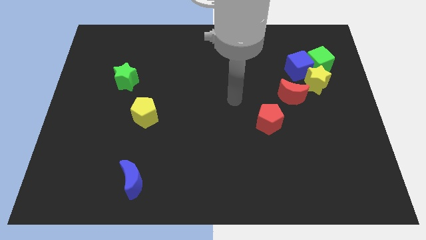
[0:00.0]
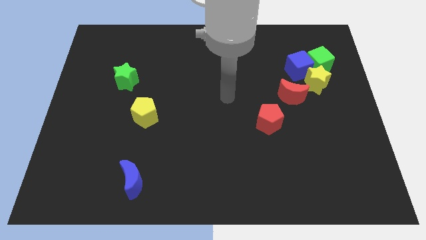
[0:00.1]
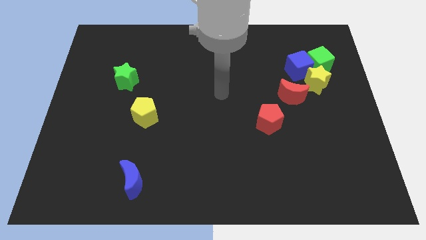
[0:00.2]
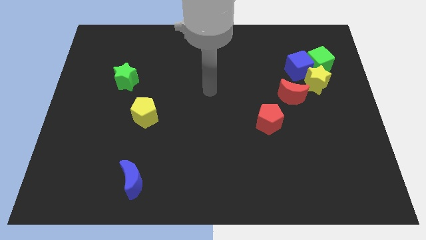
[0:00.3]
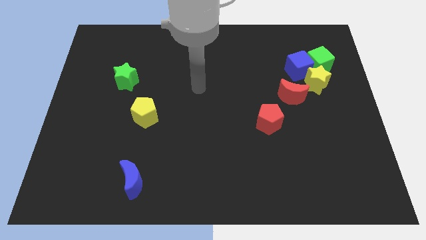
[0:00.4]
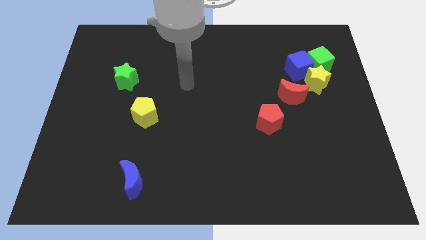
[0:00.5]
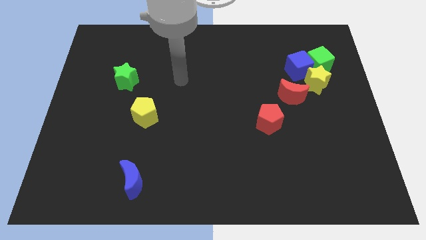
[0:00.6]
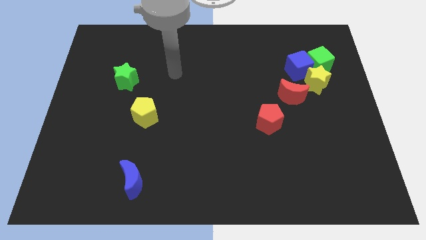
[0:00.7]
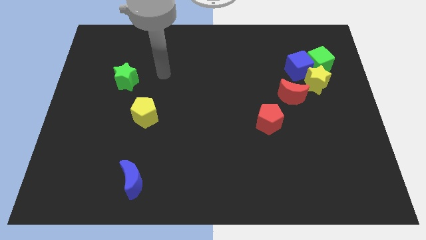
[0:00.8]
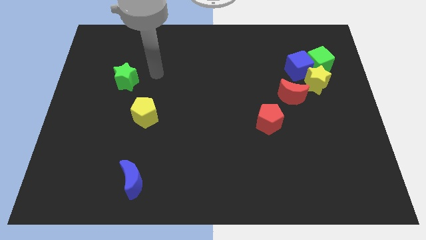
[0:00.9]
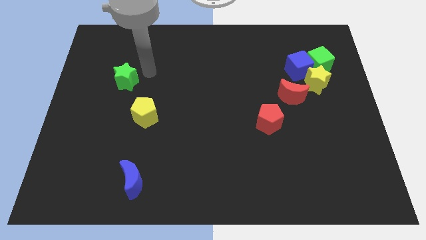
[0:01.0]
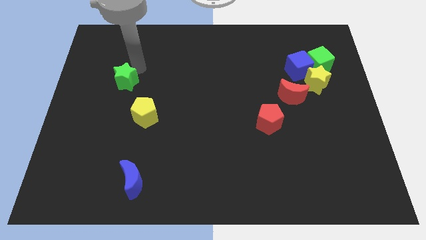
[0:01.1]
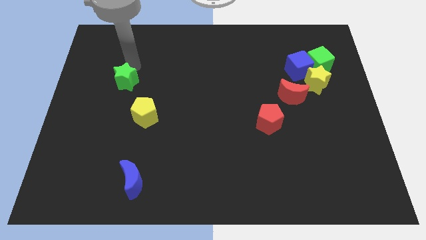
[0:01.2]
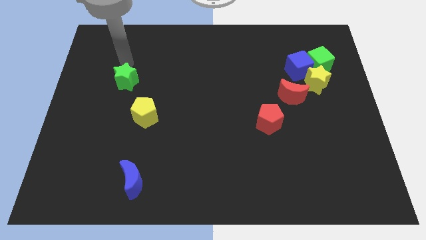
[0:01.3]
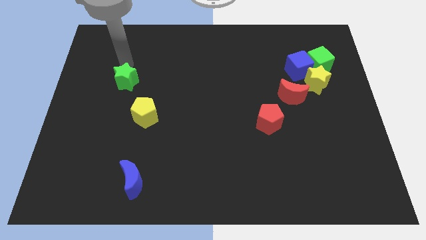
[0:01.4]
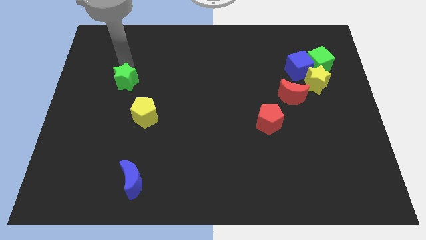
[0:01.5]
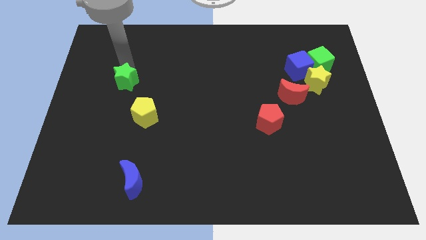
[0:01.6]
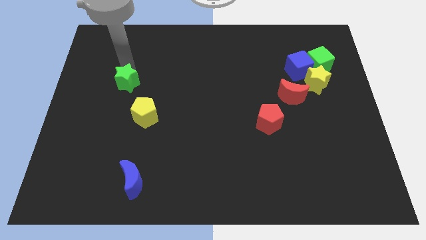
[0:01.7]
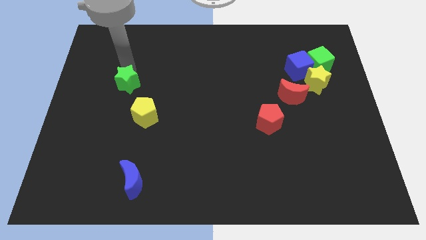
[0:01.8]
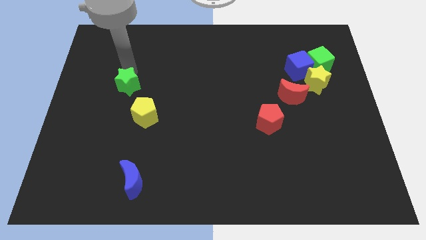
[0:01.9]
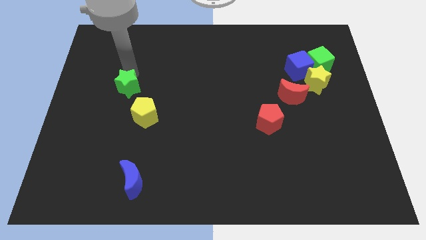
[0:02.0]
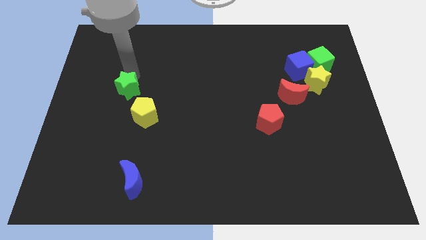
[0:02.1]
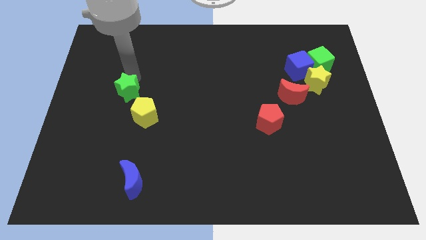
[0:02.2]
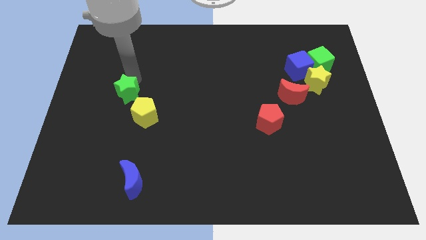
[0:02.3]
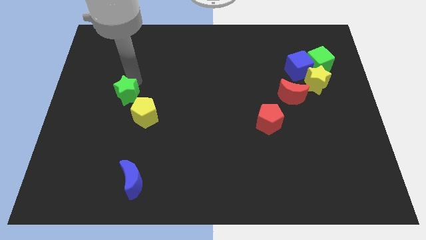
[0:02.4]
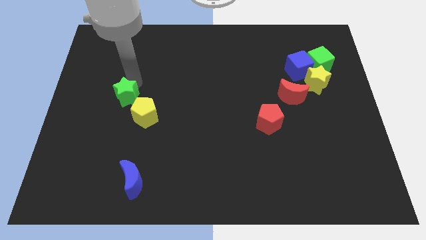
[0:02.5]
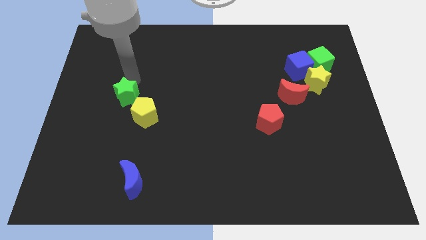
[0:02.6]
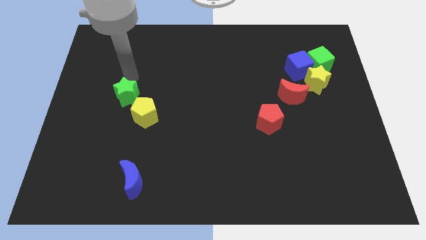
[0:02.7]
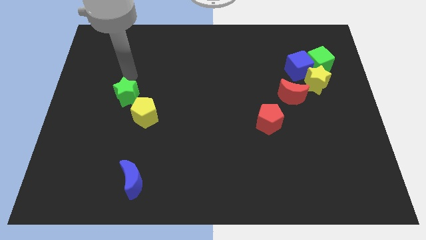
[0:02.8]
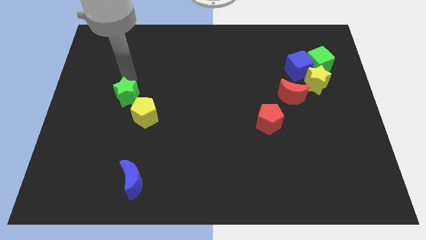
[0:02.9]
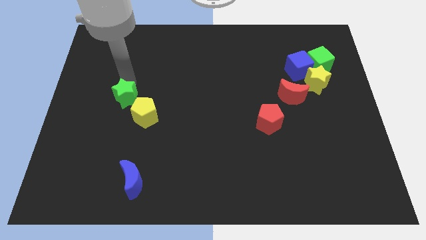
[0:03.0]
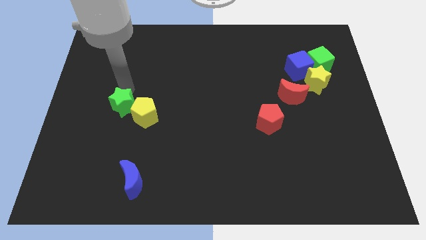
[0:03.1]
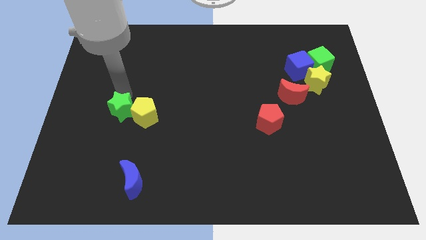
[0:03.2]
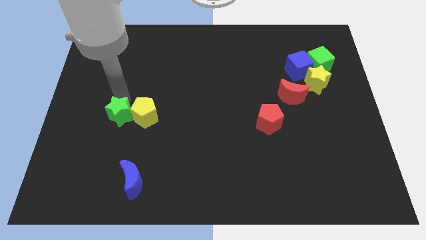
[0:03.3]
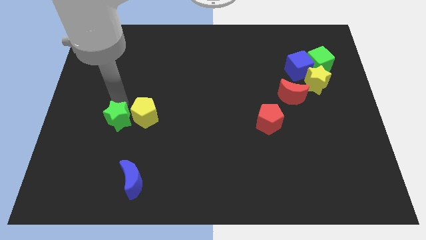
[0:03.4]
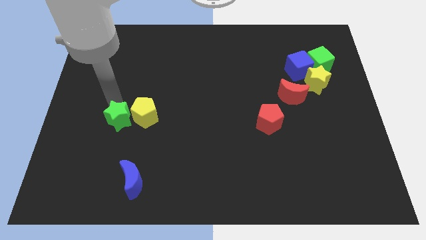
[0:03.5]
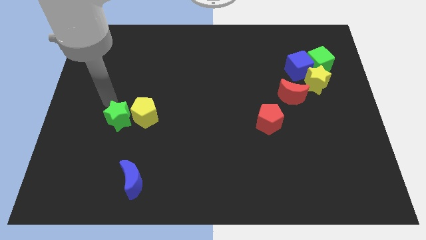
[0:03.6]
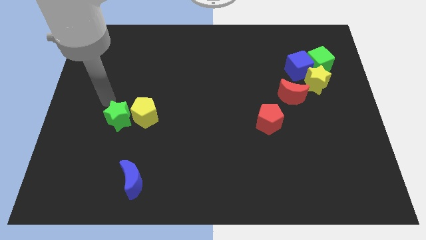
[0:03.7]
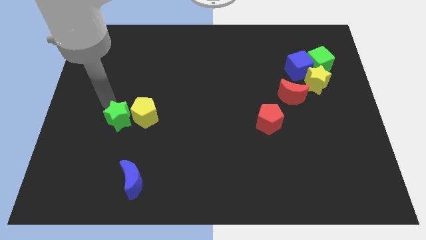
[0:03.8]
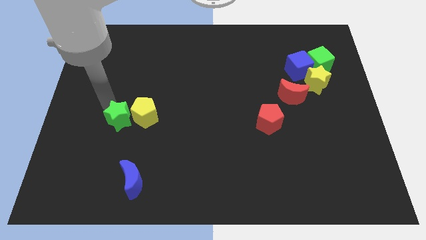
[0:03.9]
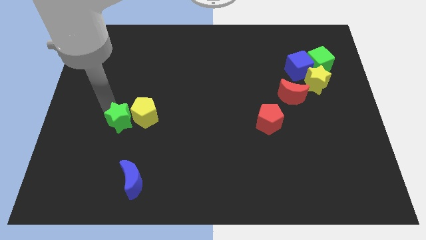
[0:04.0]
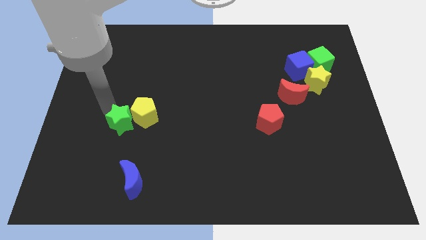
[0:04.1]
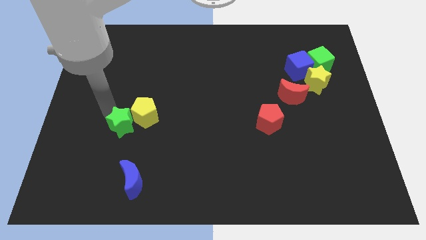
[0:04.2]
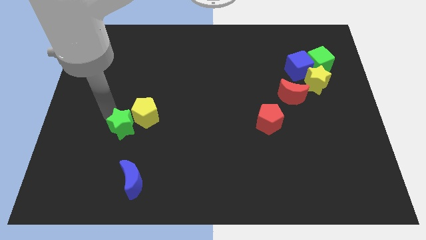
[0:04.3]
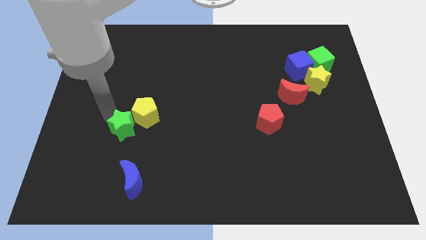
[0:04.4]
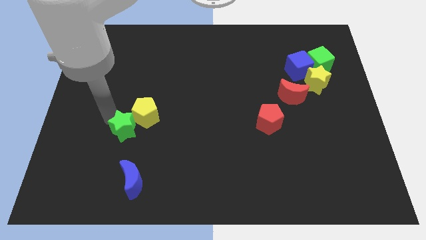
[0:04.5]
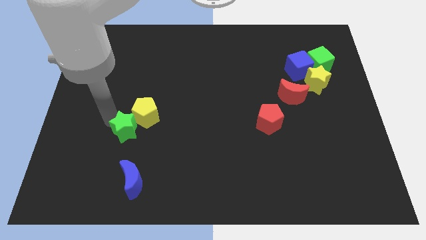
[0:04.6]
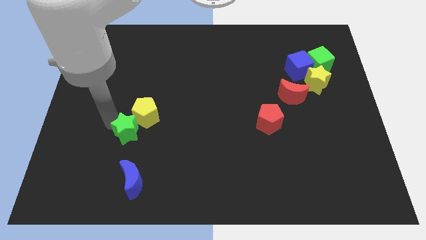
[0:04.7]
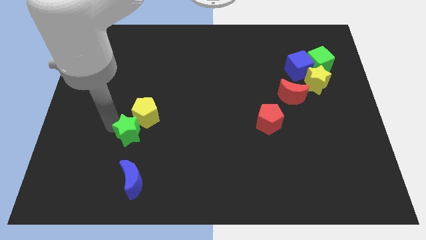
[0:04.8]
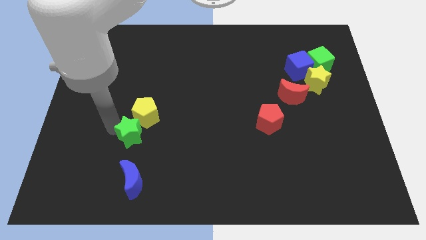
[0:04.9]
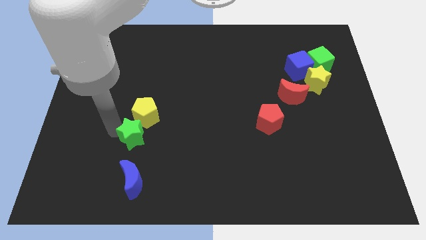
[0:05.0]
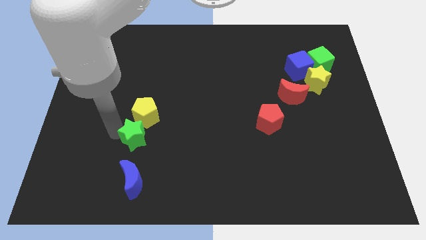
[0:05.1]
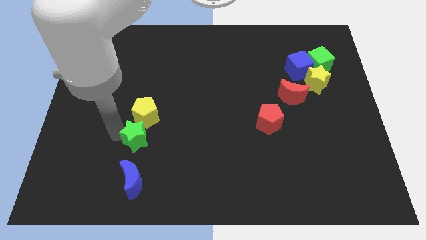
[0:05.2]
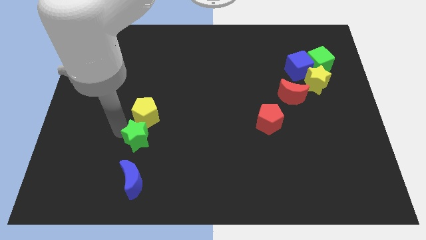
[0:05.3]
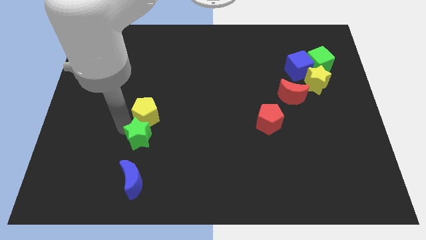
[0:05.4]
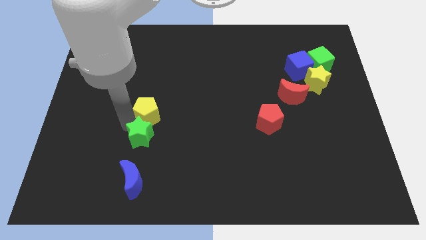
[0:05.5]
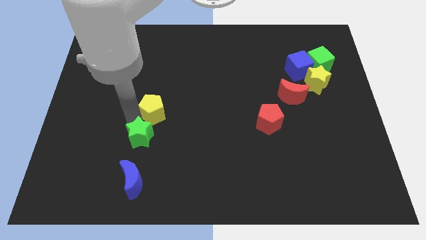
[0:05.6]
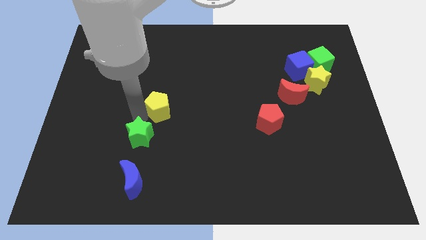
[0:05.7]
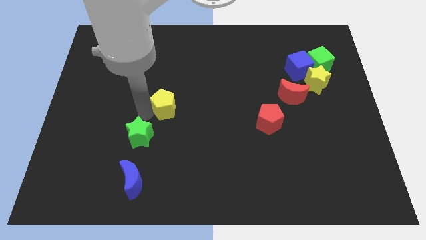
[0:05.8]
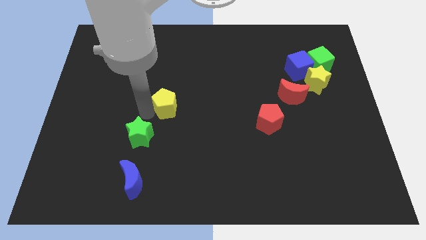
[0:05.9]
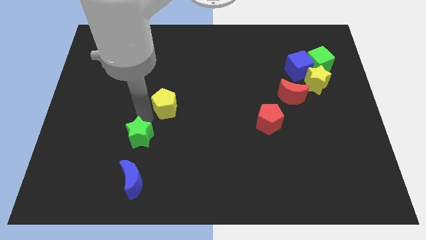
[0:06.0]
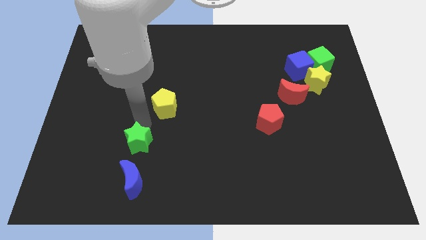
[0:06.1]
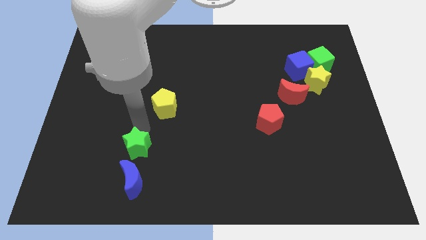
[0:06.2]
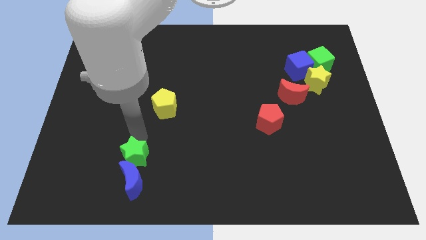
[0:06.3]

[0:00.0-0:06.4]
move the green star next to the blue moon
